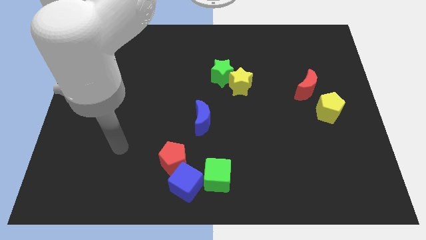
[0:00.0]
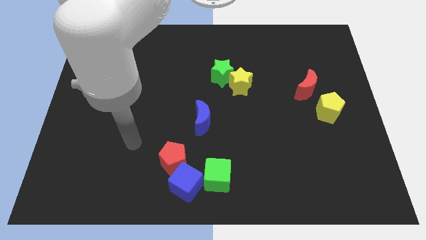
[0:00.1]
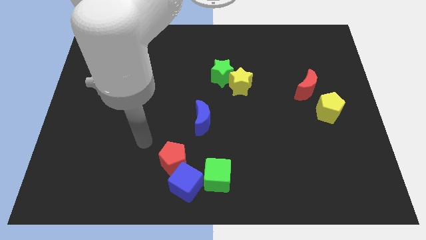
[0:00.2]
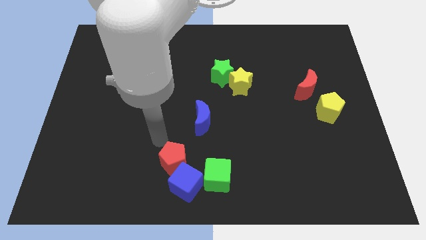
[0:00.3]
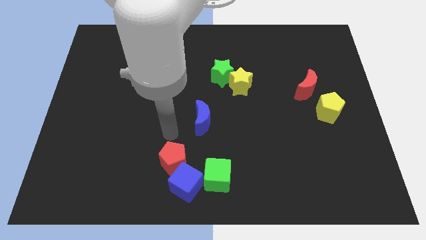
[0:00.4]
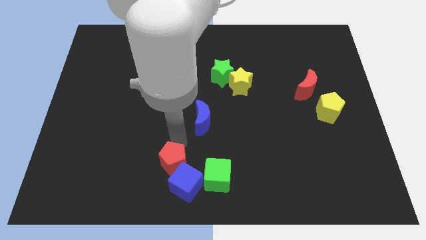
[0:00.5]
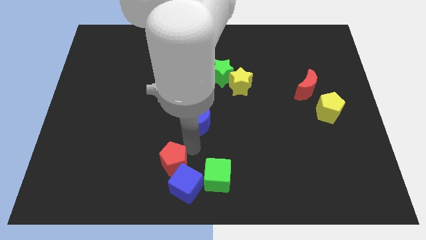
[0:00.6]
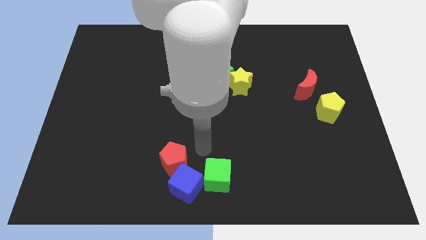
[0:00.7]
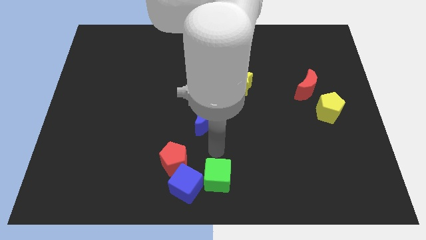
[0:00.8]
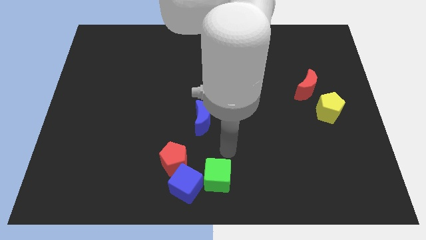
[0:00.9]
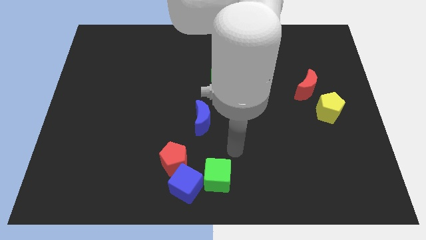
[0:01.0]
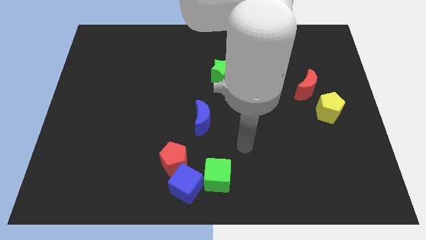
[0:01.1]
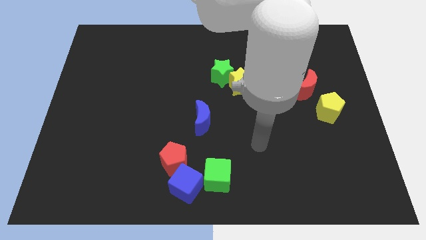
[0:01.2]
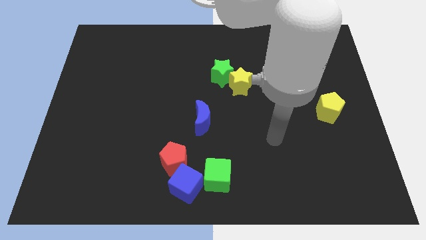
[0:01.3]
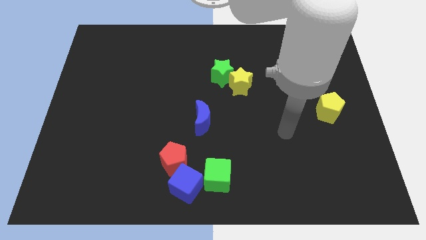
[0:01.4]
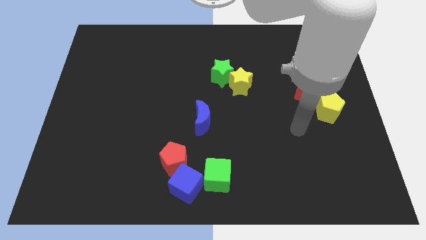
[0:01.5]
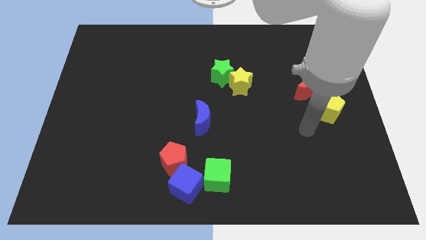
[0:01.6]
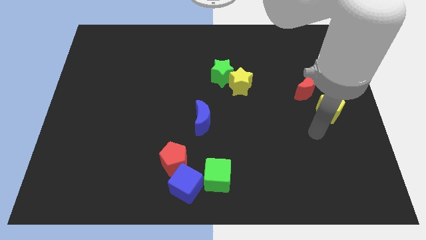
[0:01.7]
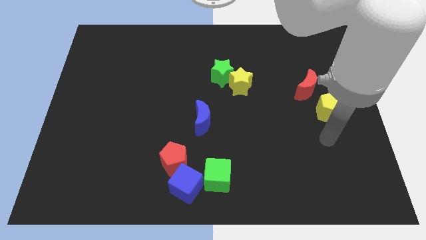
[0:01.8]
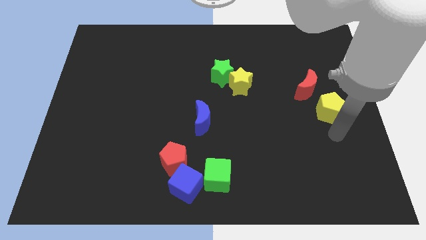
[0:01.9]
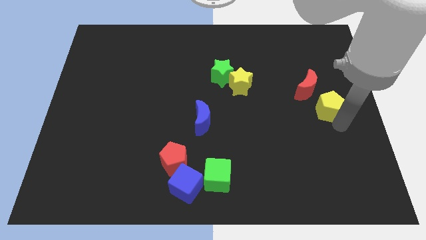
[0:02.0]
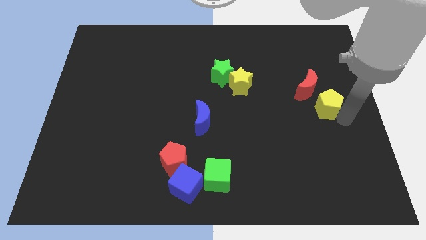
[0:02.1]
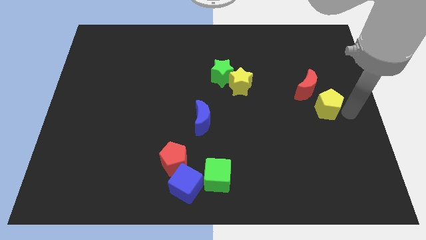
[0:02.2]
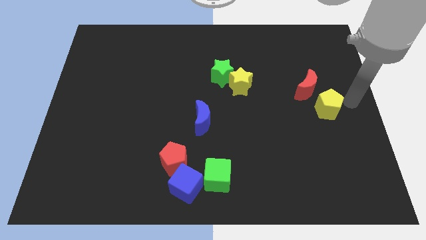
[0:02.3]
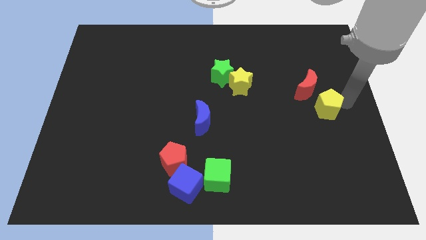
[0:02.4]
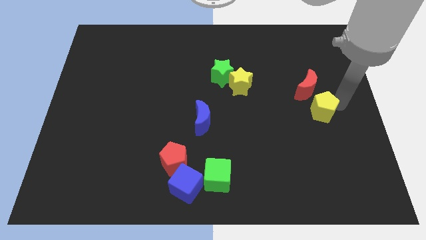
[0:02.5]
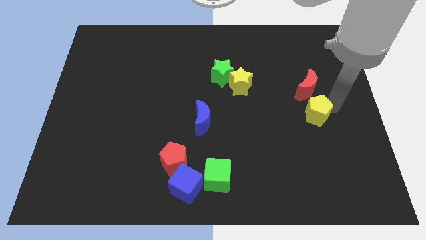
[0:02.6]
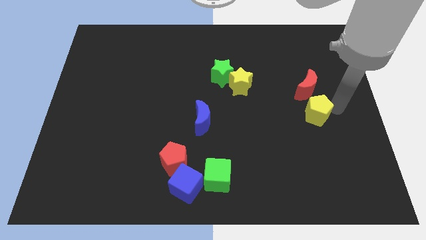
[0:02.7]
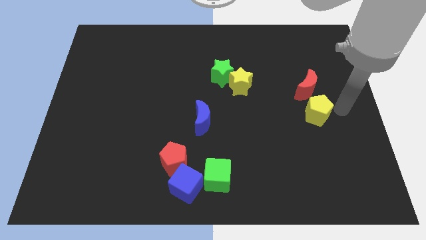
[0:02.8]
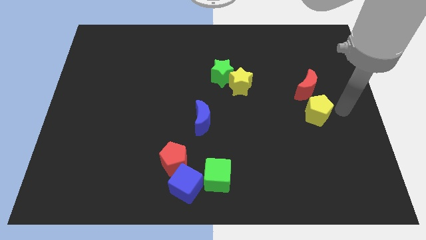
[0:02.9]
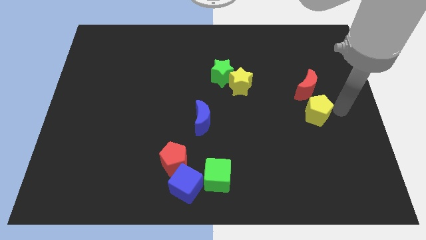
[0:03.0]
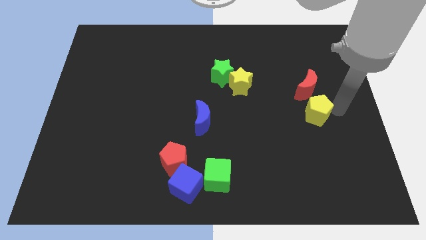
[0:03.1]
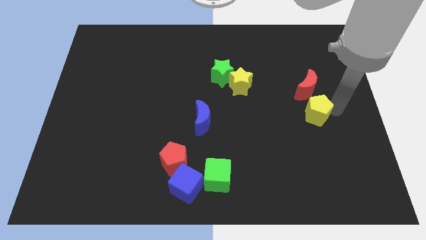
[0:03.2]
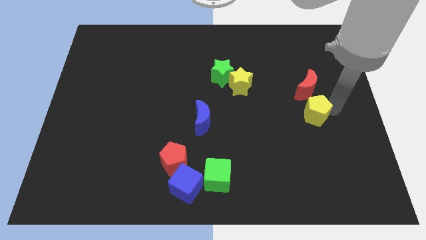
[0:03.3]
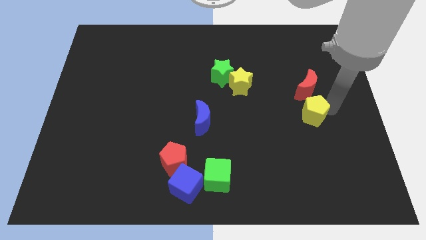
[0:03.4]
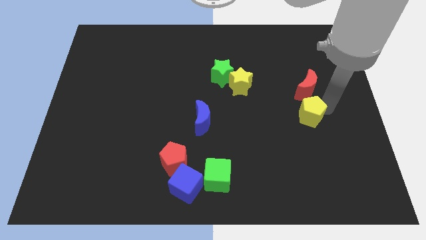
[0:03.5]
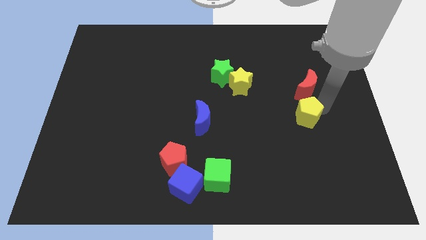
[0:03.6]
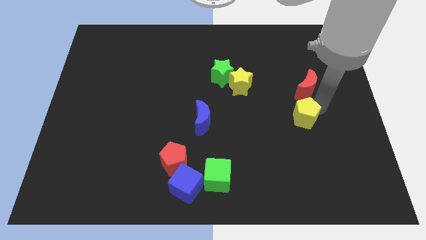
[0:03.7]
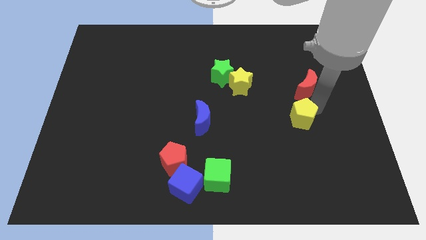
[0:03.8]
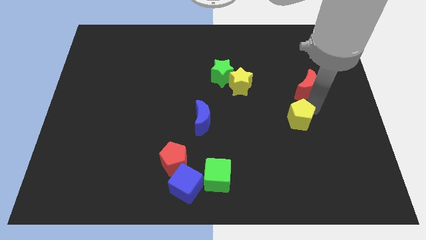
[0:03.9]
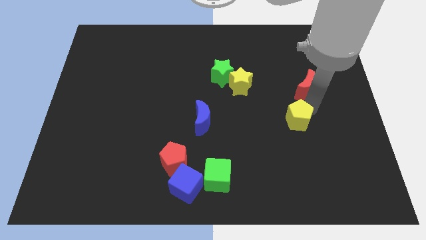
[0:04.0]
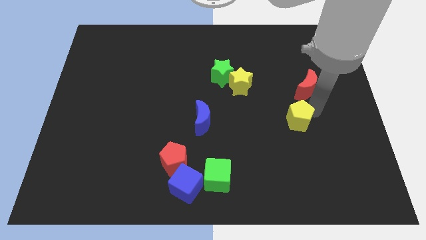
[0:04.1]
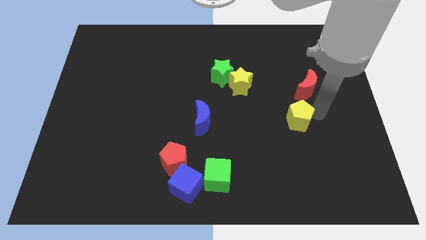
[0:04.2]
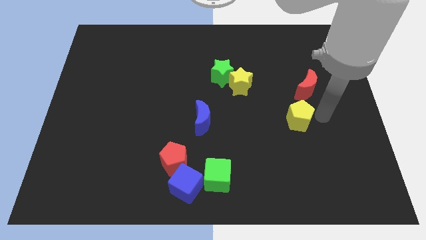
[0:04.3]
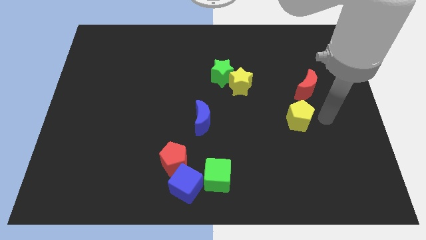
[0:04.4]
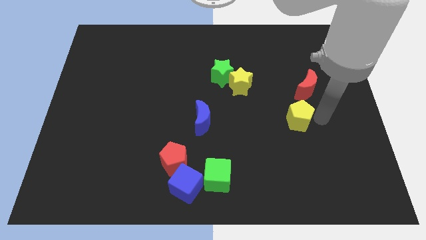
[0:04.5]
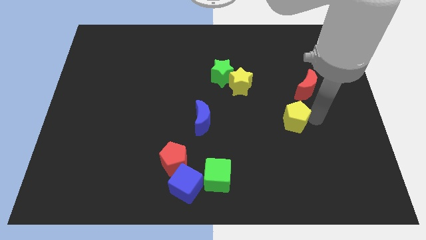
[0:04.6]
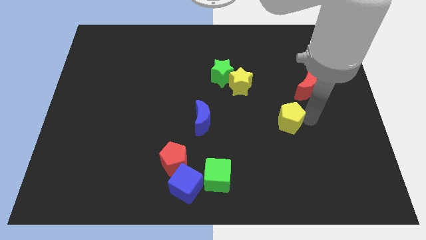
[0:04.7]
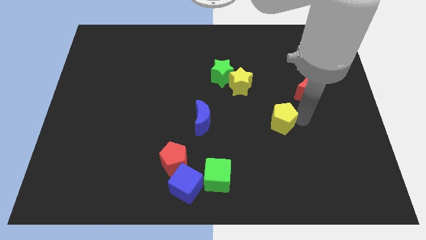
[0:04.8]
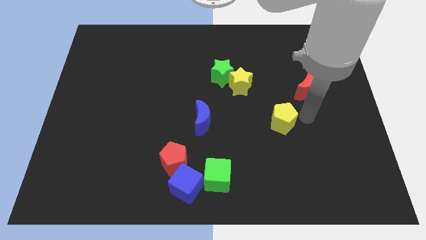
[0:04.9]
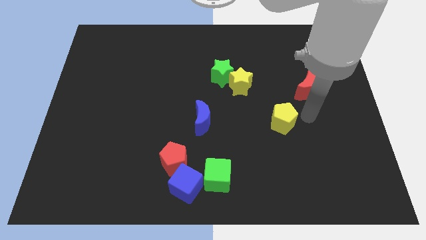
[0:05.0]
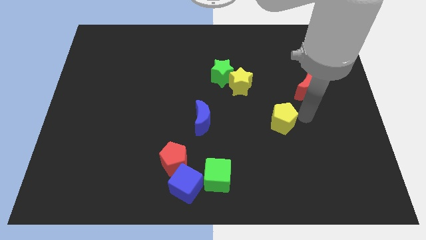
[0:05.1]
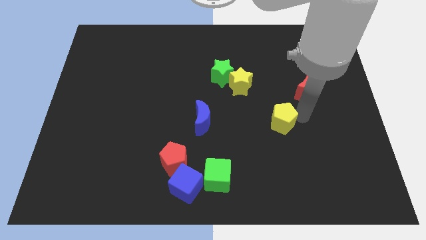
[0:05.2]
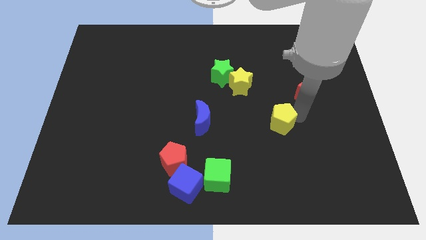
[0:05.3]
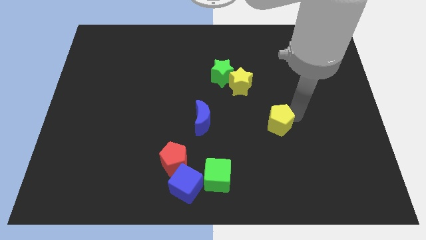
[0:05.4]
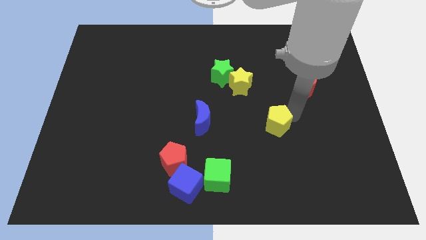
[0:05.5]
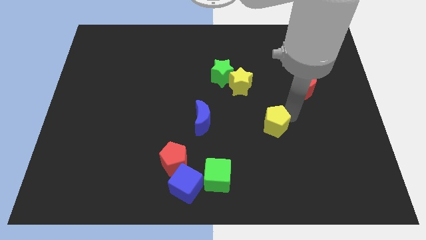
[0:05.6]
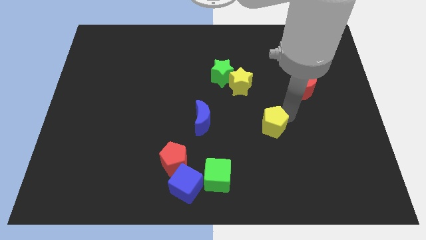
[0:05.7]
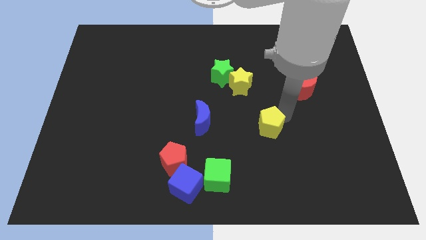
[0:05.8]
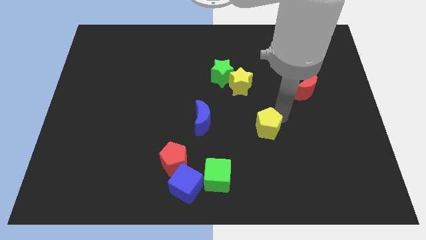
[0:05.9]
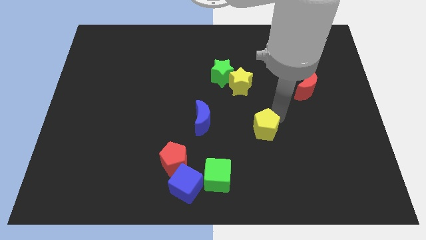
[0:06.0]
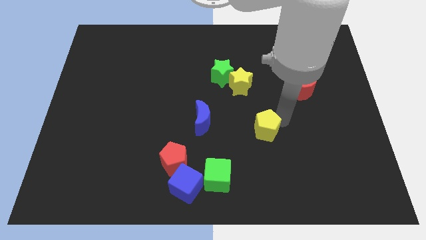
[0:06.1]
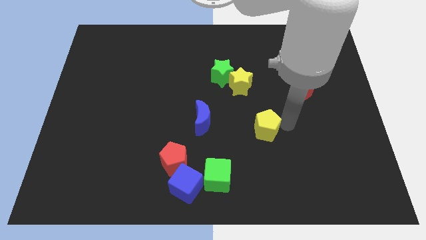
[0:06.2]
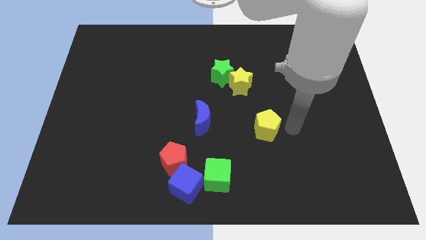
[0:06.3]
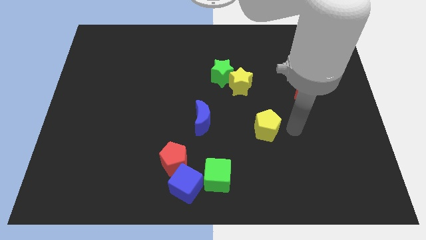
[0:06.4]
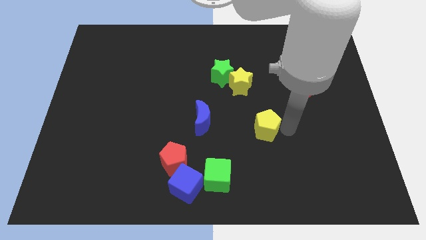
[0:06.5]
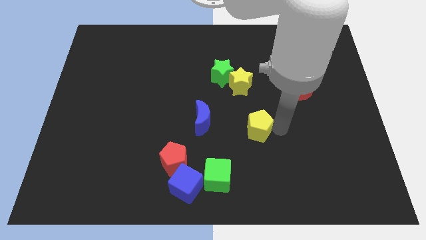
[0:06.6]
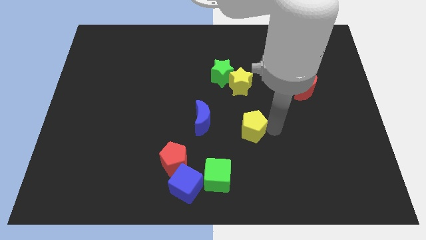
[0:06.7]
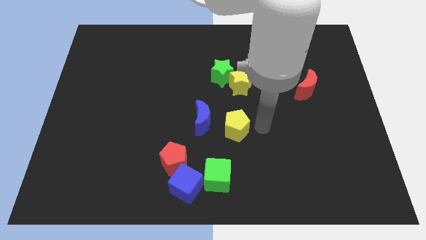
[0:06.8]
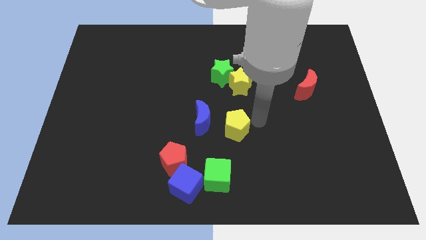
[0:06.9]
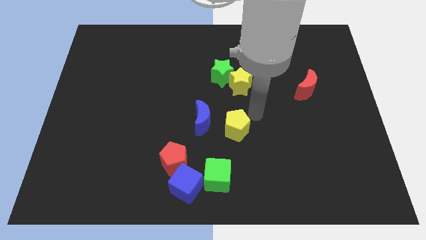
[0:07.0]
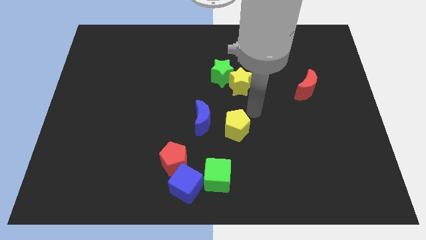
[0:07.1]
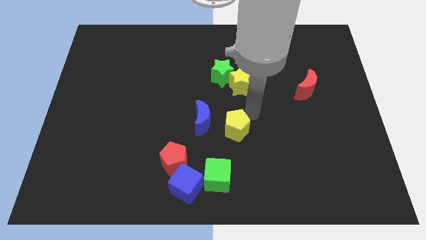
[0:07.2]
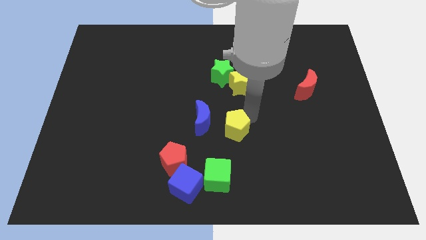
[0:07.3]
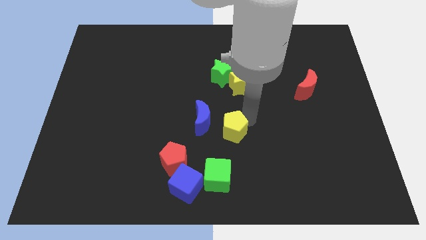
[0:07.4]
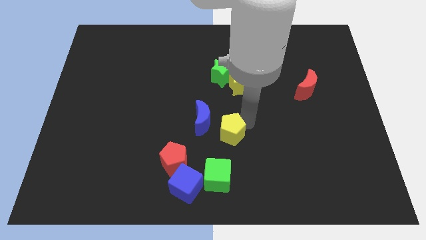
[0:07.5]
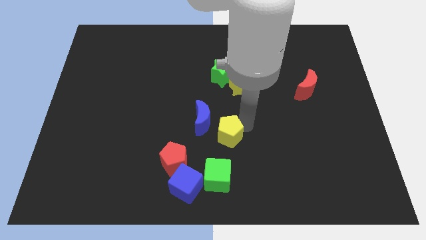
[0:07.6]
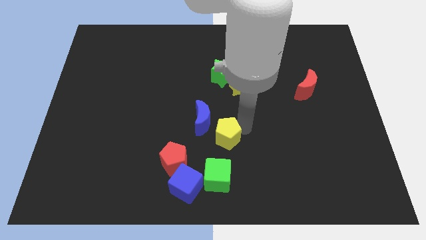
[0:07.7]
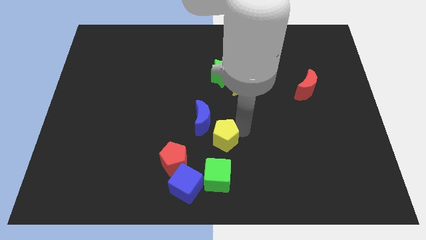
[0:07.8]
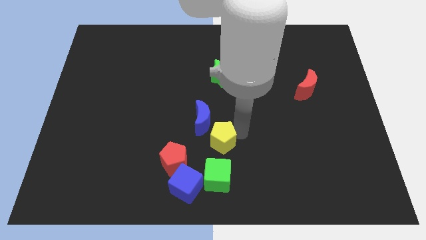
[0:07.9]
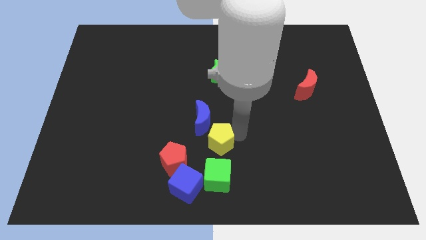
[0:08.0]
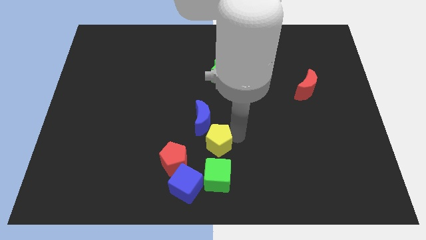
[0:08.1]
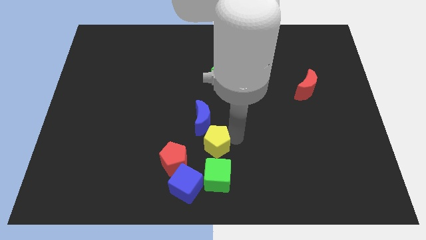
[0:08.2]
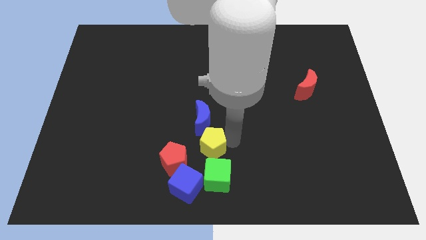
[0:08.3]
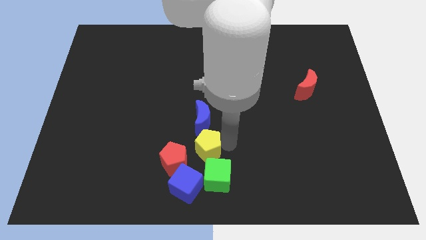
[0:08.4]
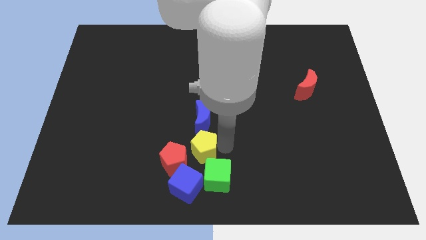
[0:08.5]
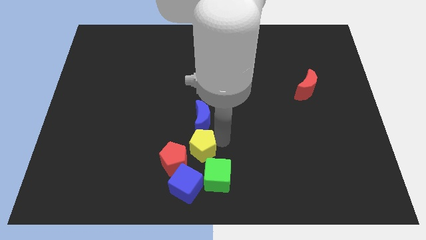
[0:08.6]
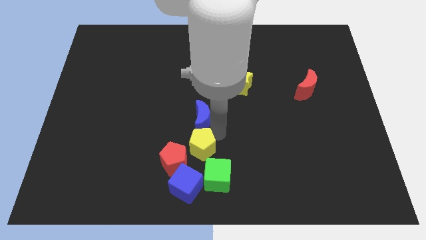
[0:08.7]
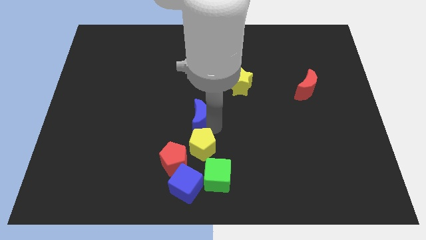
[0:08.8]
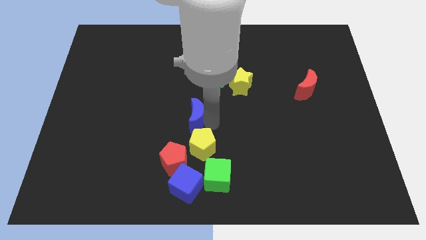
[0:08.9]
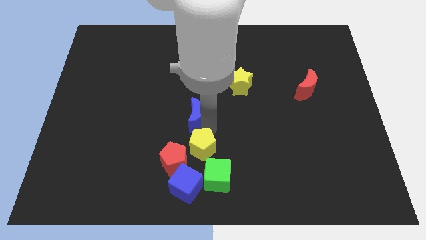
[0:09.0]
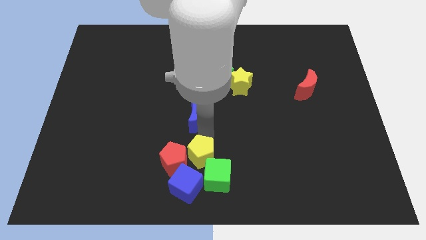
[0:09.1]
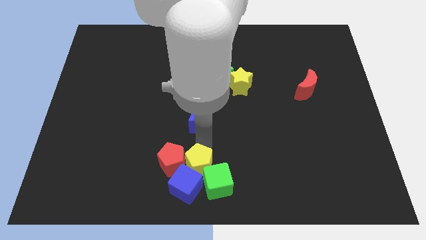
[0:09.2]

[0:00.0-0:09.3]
move the yellow pentagon next to the blue cube
